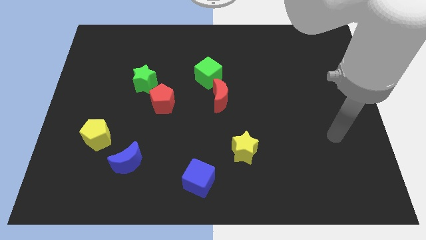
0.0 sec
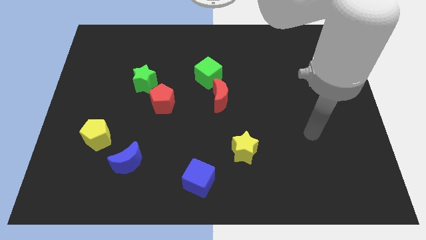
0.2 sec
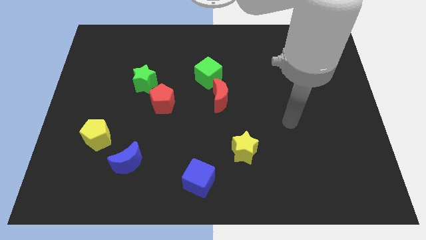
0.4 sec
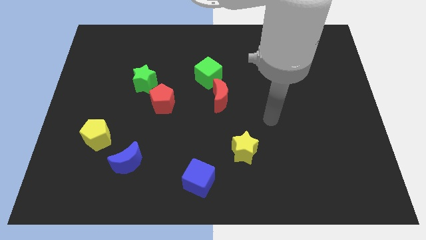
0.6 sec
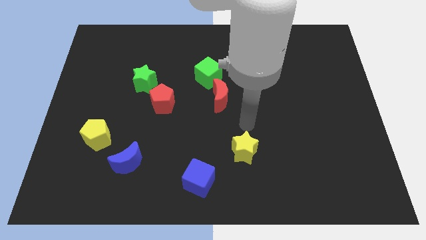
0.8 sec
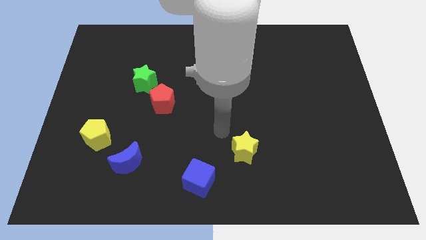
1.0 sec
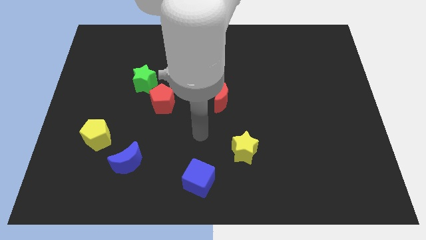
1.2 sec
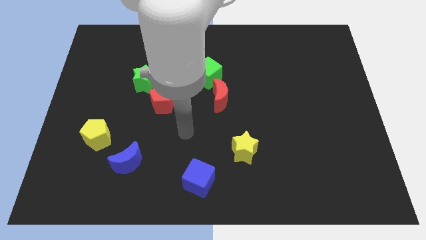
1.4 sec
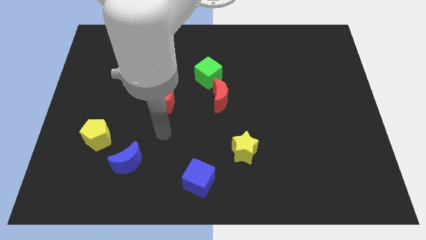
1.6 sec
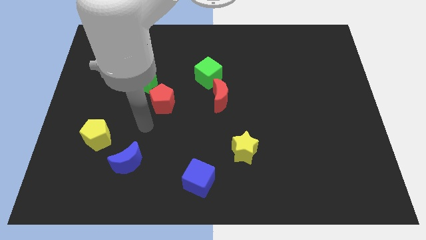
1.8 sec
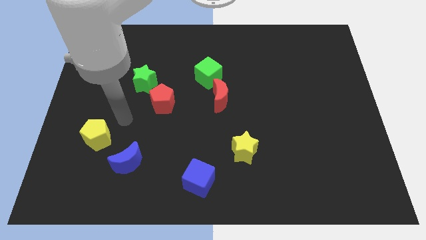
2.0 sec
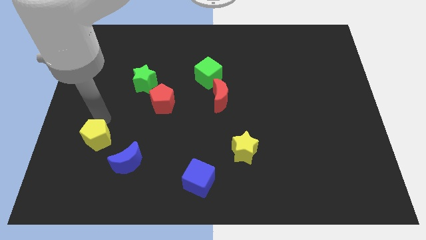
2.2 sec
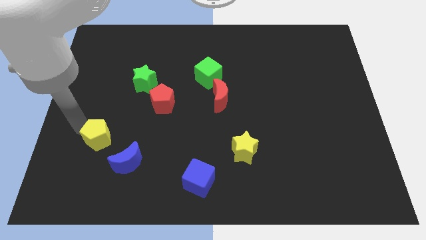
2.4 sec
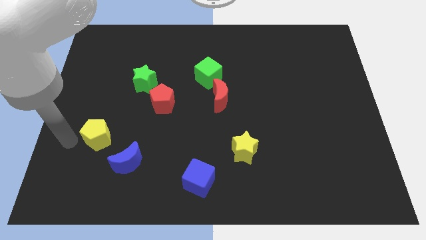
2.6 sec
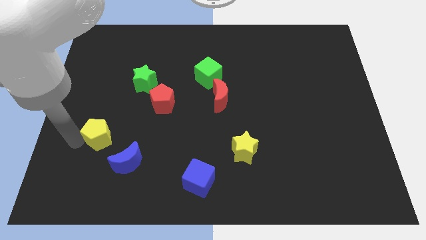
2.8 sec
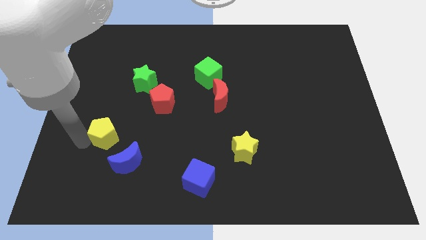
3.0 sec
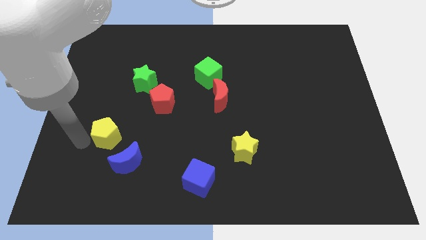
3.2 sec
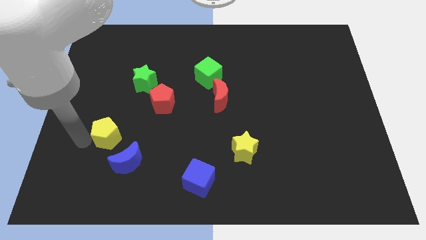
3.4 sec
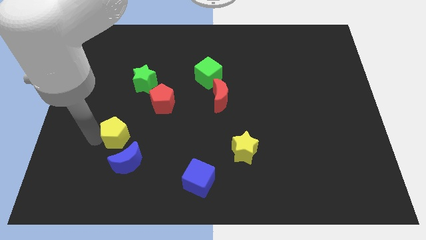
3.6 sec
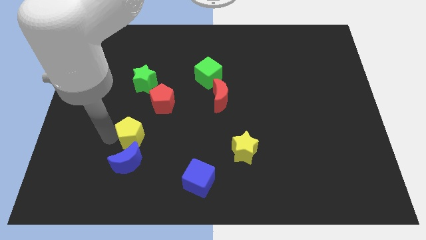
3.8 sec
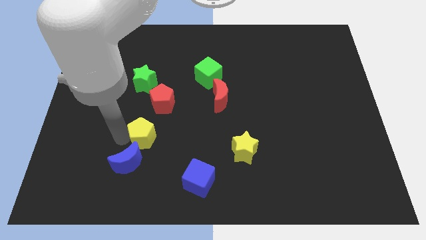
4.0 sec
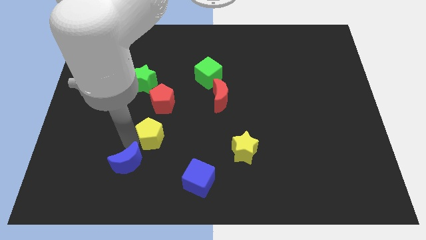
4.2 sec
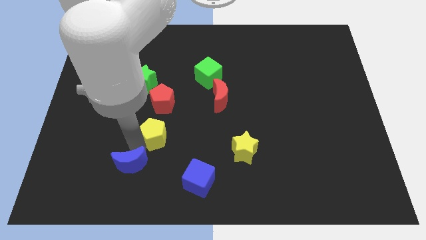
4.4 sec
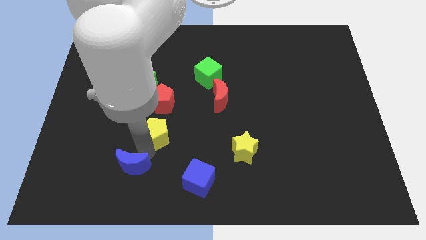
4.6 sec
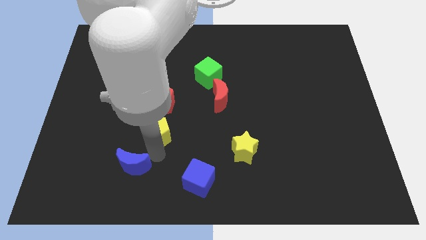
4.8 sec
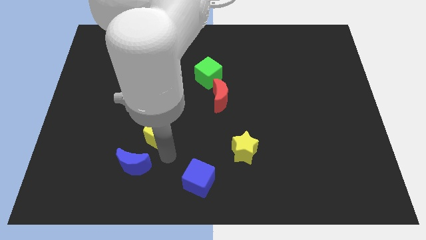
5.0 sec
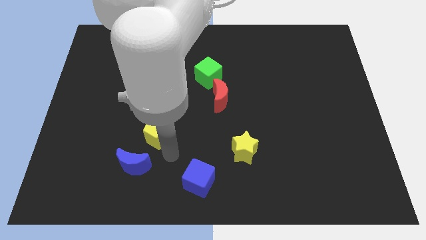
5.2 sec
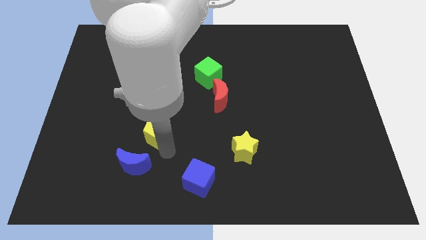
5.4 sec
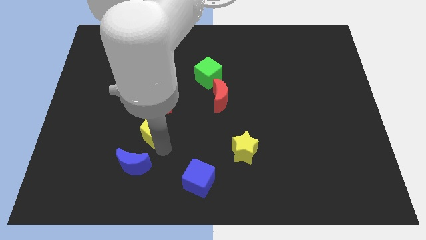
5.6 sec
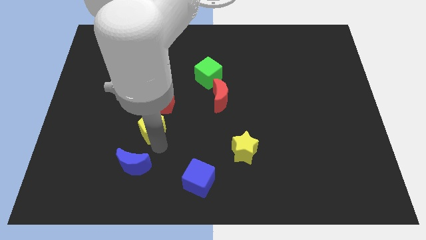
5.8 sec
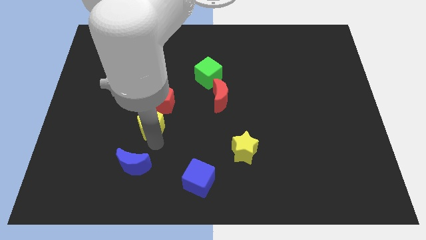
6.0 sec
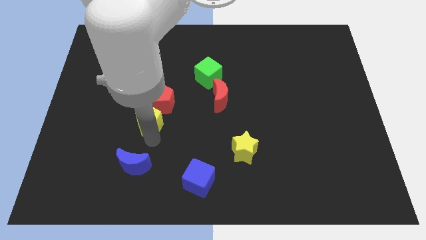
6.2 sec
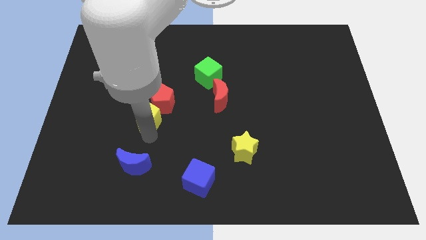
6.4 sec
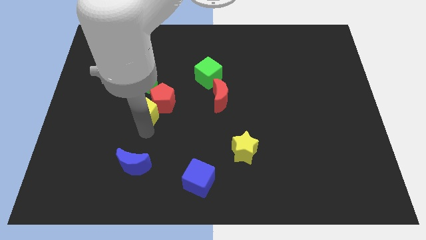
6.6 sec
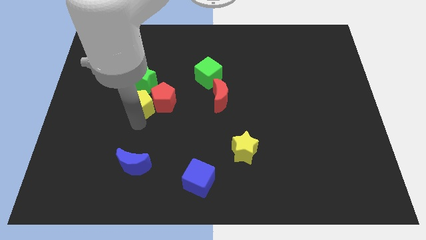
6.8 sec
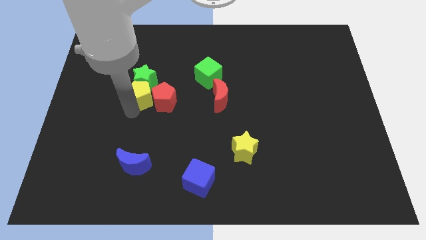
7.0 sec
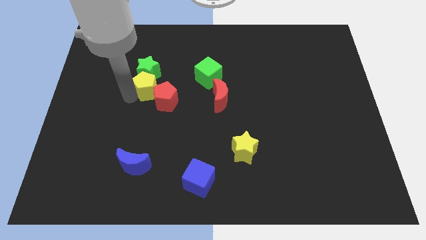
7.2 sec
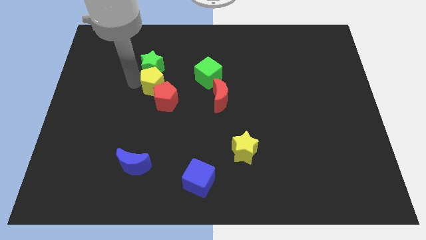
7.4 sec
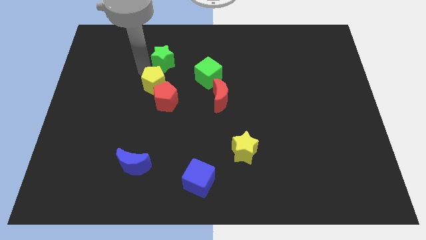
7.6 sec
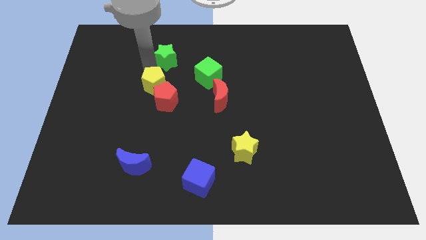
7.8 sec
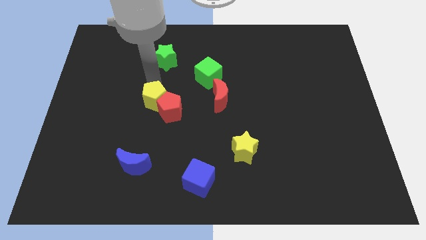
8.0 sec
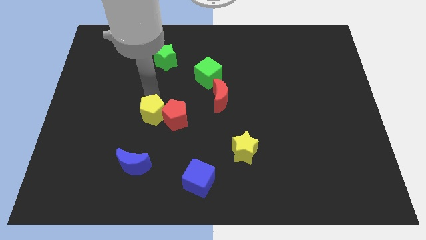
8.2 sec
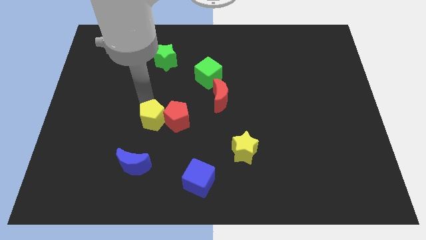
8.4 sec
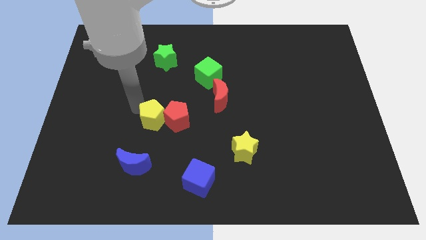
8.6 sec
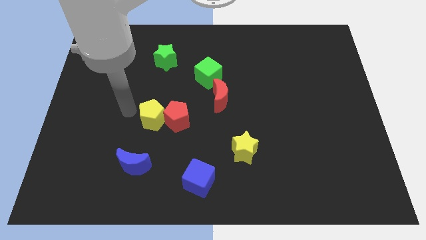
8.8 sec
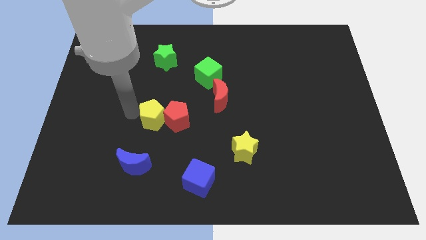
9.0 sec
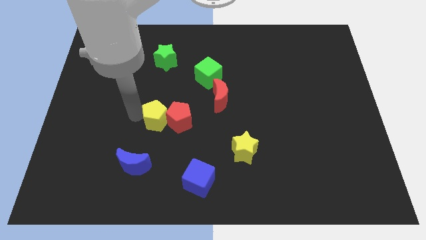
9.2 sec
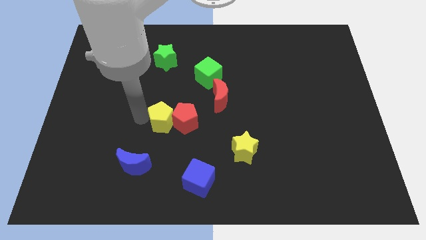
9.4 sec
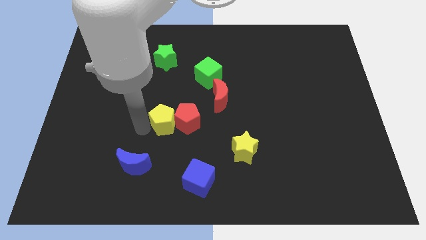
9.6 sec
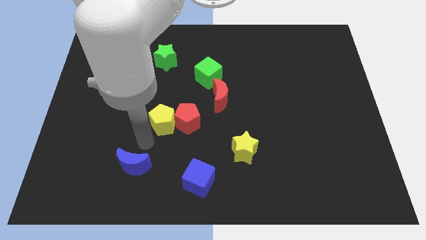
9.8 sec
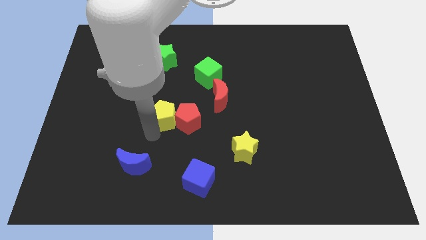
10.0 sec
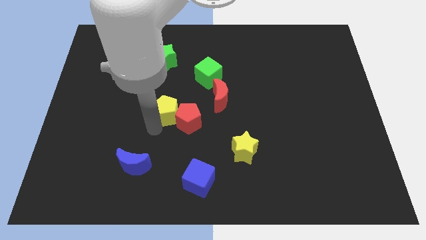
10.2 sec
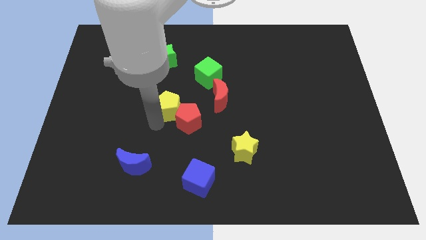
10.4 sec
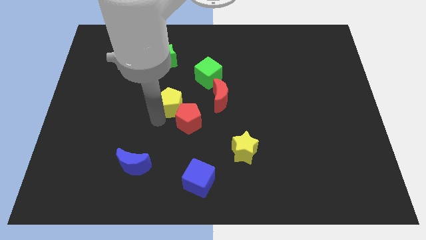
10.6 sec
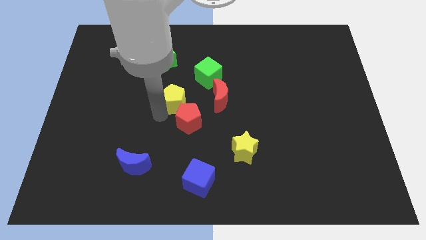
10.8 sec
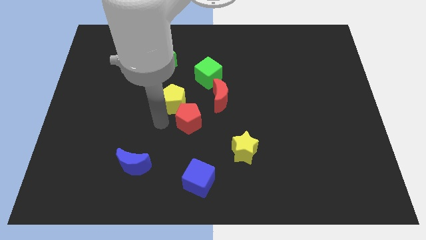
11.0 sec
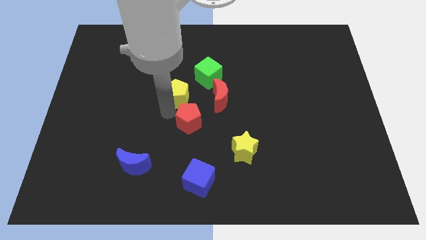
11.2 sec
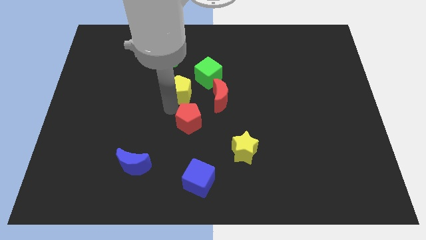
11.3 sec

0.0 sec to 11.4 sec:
slide the yellow pentagon up and right diagonally

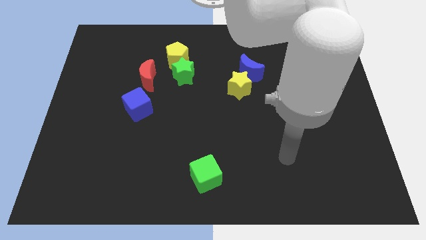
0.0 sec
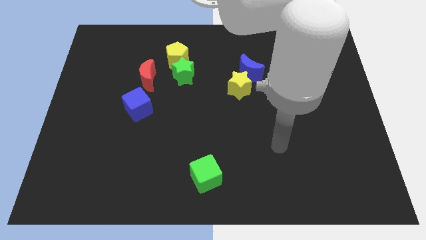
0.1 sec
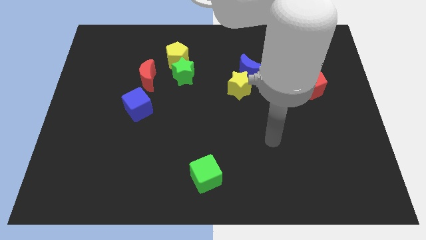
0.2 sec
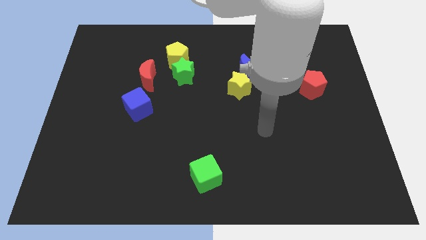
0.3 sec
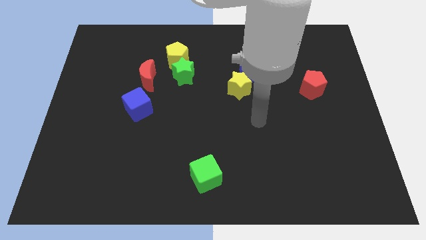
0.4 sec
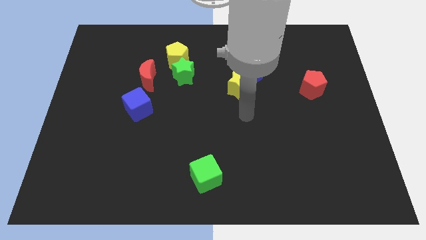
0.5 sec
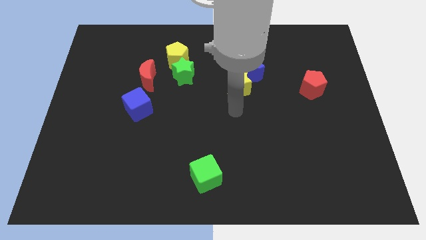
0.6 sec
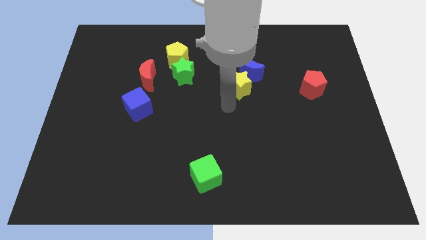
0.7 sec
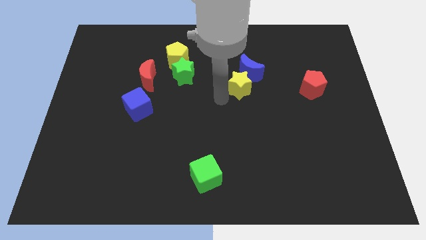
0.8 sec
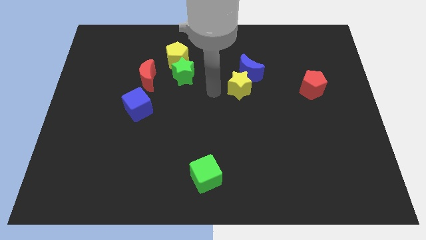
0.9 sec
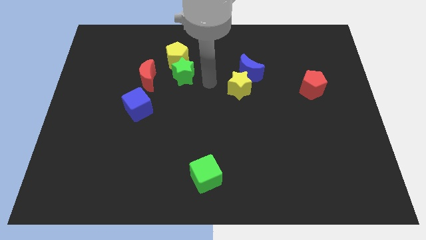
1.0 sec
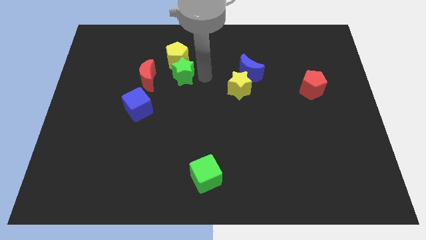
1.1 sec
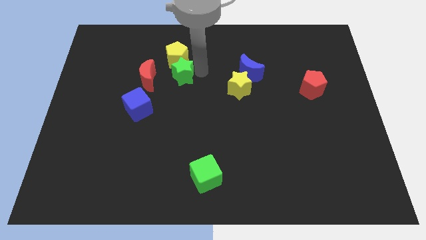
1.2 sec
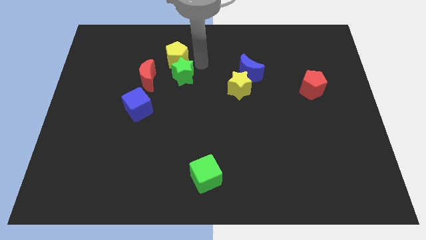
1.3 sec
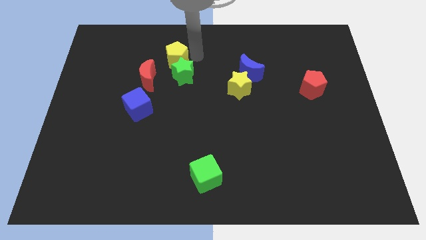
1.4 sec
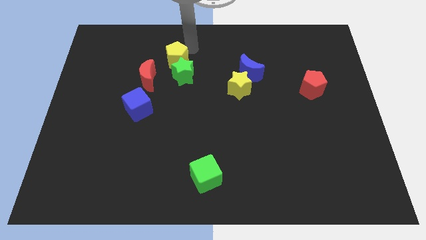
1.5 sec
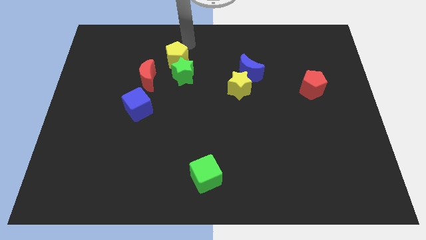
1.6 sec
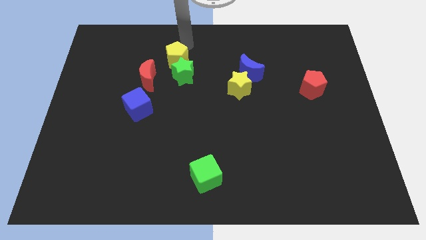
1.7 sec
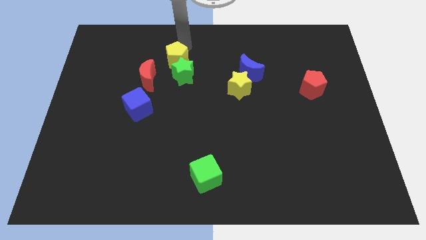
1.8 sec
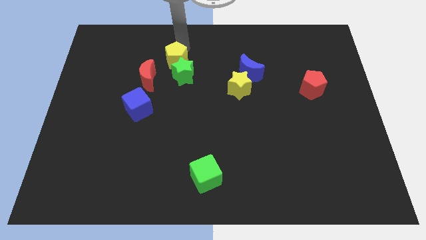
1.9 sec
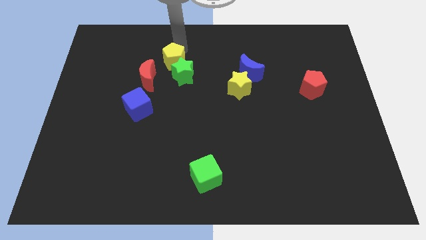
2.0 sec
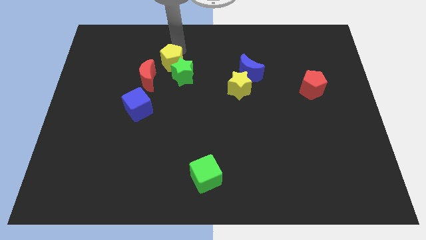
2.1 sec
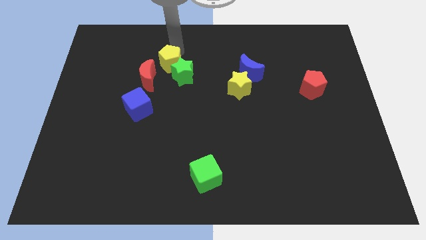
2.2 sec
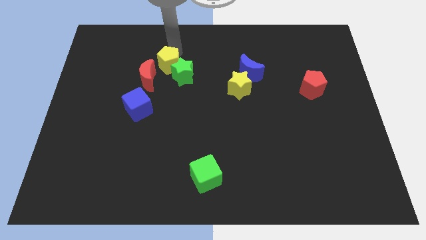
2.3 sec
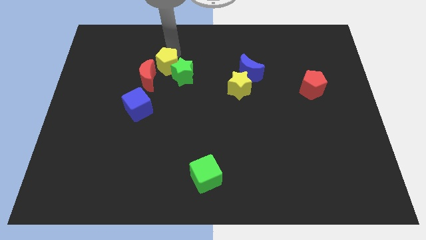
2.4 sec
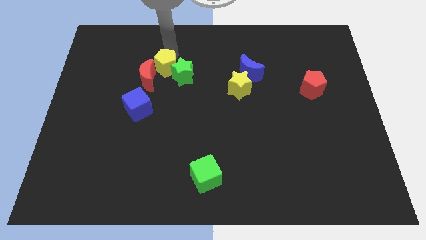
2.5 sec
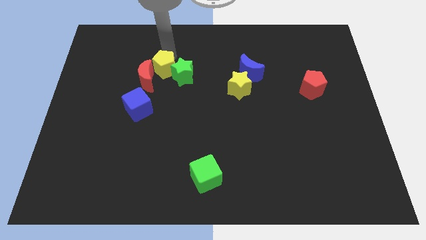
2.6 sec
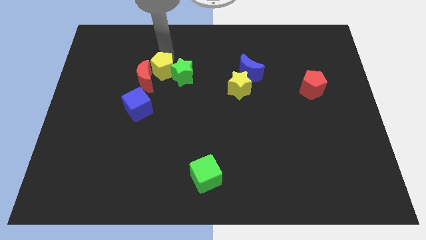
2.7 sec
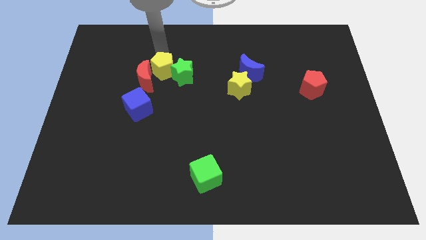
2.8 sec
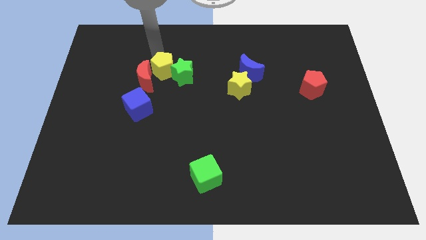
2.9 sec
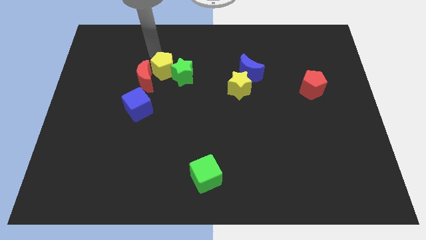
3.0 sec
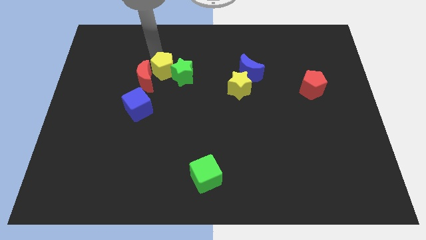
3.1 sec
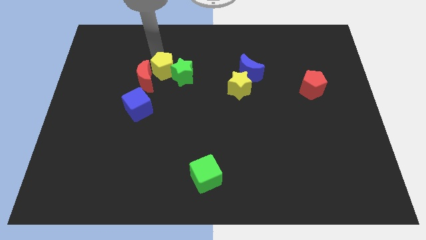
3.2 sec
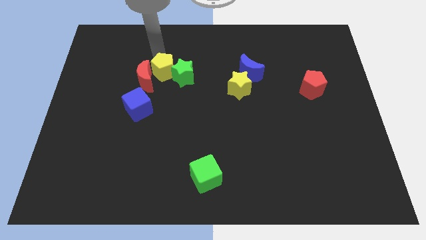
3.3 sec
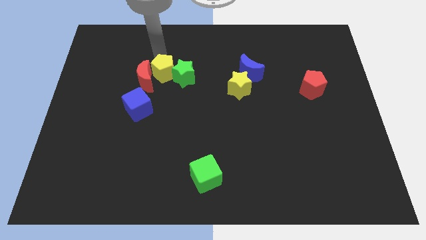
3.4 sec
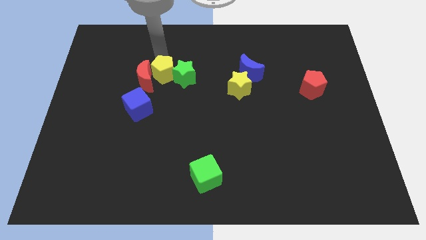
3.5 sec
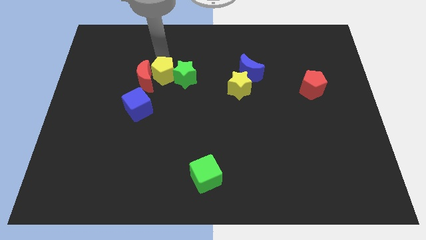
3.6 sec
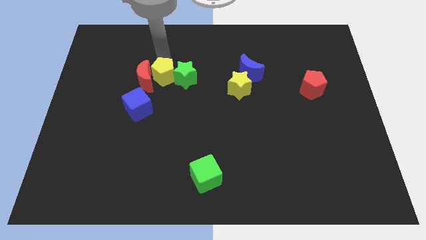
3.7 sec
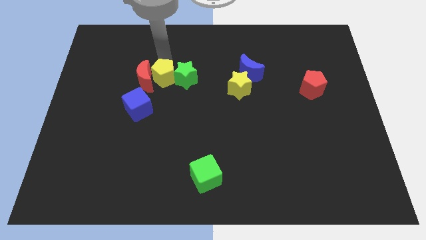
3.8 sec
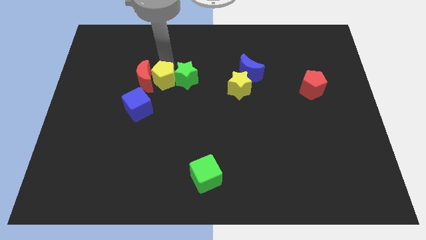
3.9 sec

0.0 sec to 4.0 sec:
slightly move the yellow pentagon downwards
